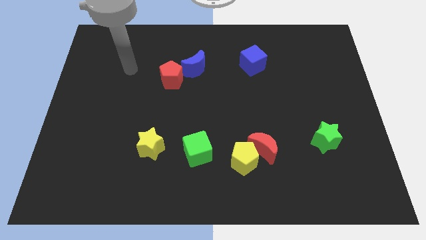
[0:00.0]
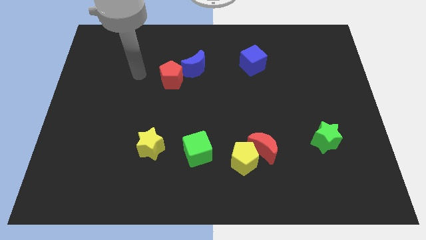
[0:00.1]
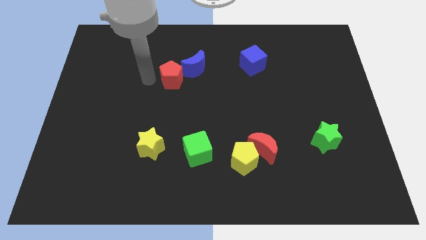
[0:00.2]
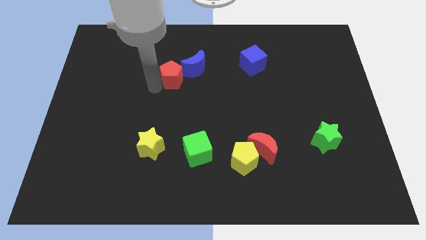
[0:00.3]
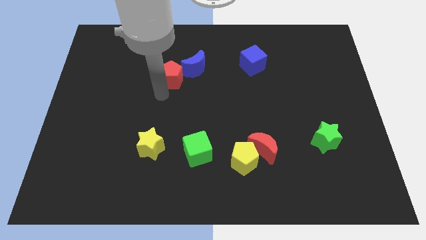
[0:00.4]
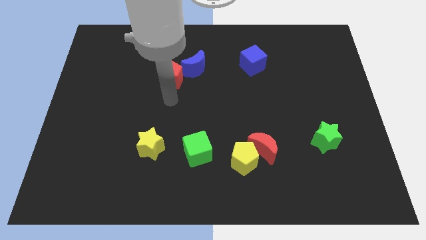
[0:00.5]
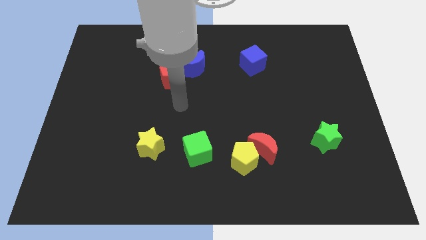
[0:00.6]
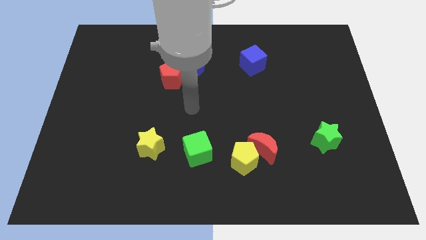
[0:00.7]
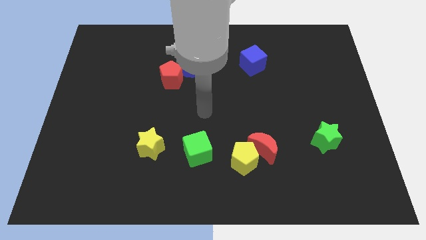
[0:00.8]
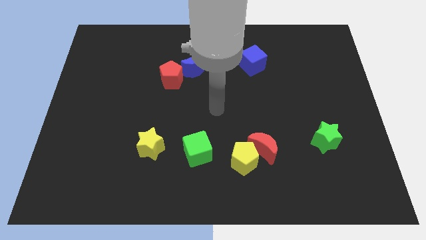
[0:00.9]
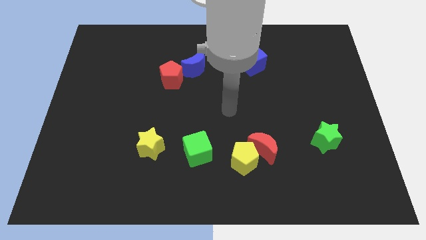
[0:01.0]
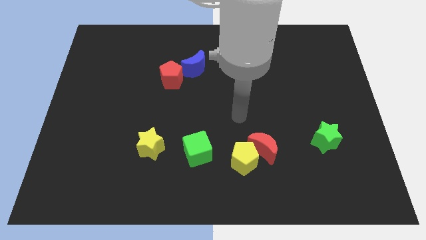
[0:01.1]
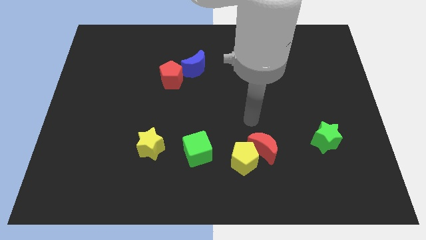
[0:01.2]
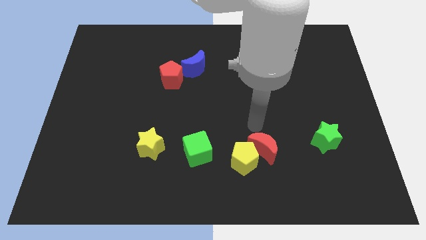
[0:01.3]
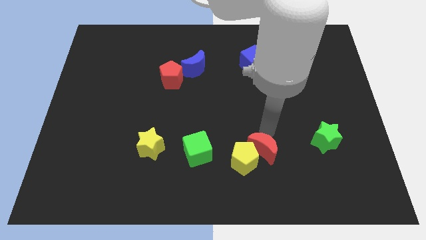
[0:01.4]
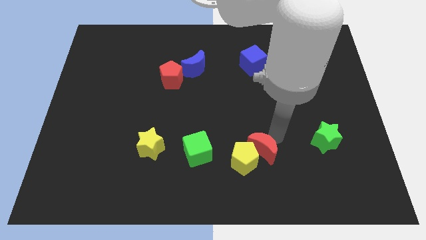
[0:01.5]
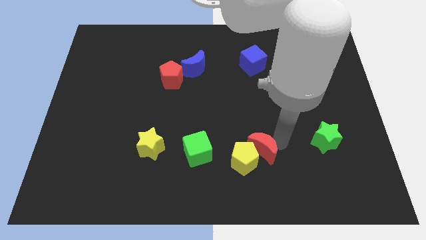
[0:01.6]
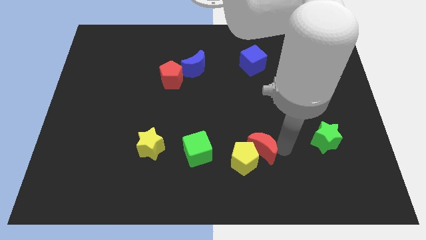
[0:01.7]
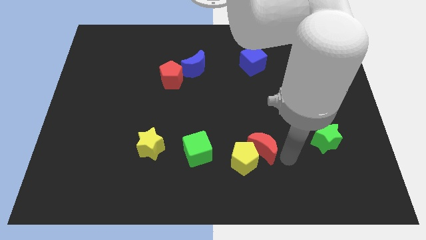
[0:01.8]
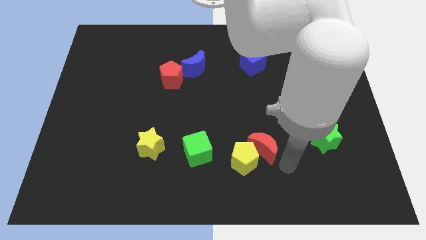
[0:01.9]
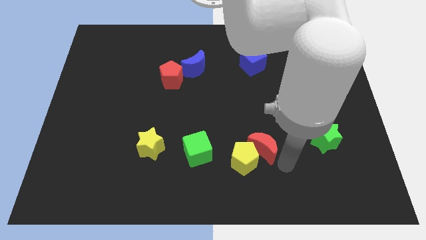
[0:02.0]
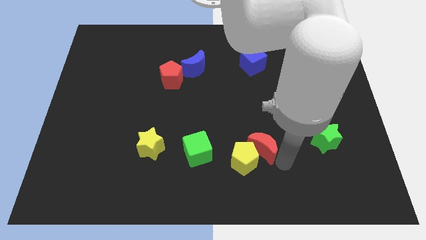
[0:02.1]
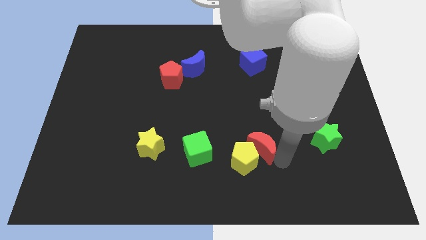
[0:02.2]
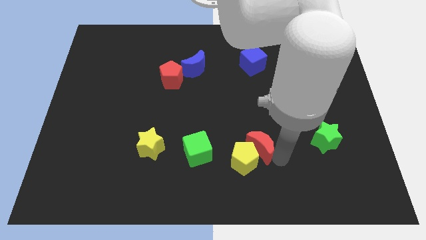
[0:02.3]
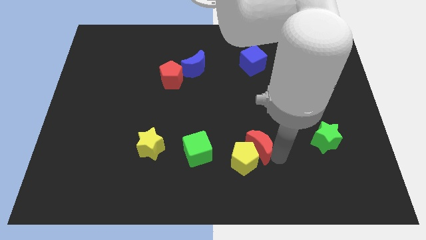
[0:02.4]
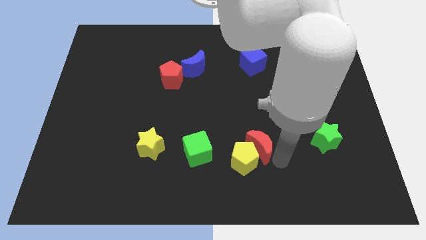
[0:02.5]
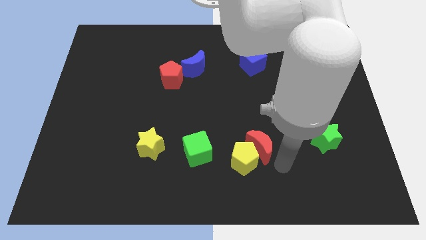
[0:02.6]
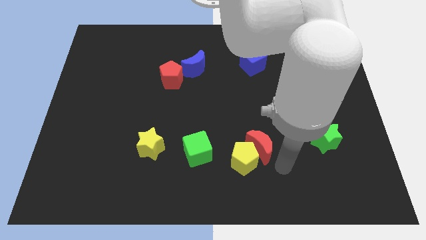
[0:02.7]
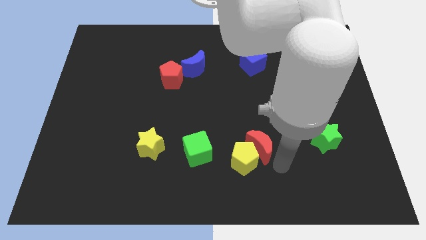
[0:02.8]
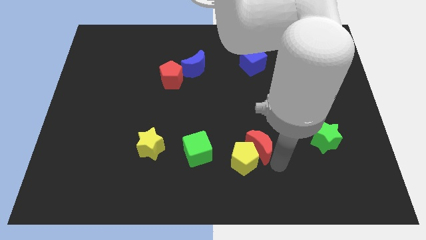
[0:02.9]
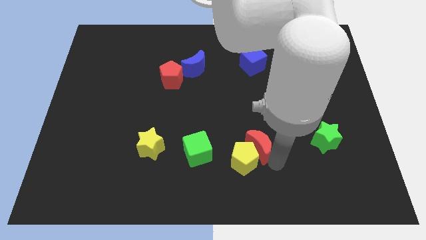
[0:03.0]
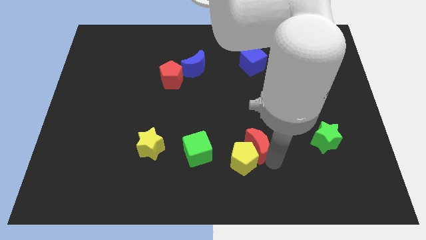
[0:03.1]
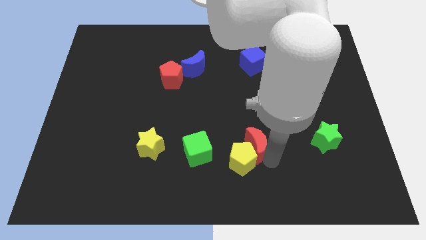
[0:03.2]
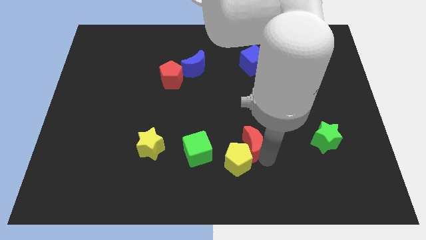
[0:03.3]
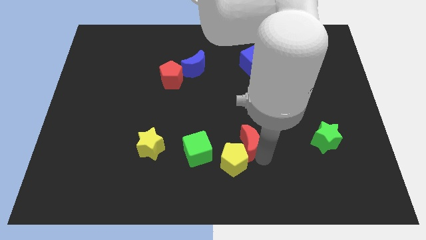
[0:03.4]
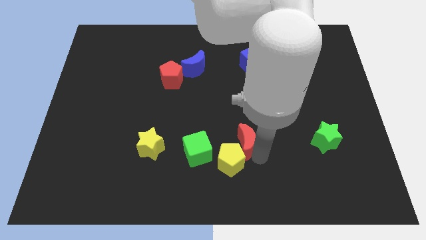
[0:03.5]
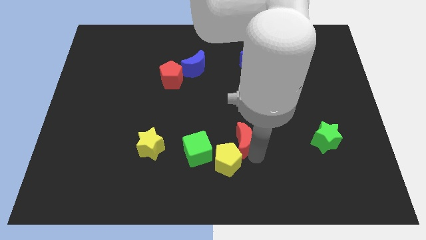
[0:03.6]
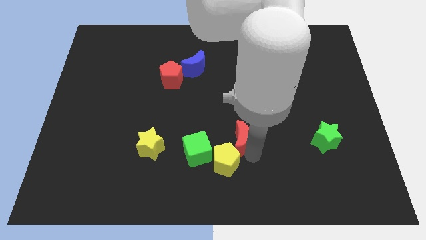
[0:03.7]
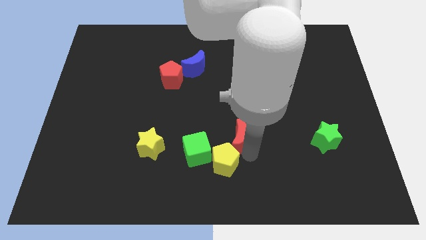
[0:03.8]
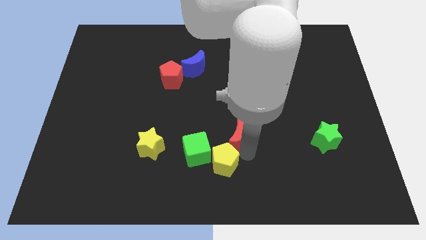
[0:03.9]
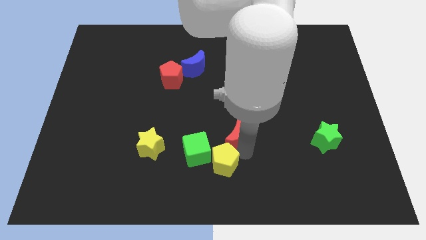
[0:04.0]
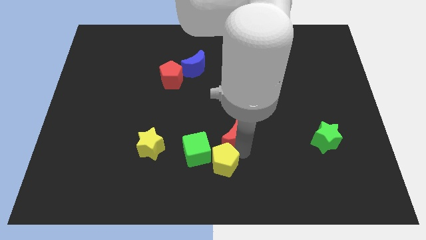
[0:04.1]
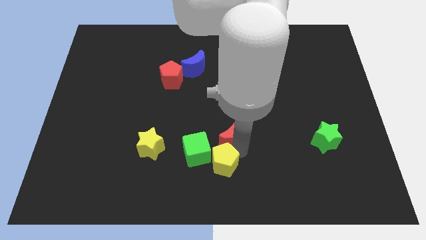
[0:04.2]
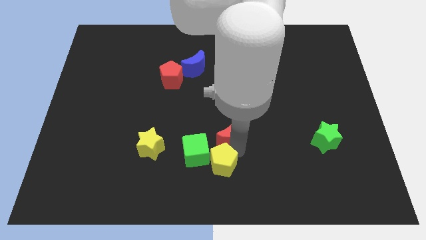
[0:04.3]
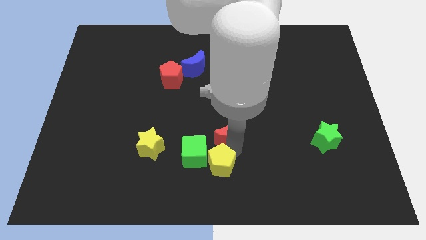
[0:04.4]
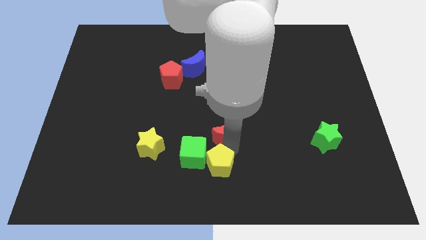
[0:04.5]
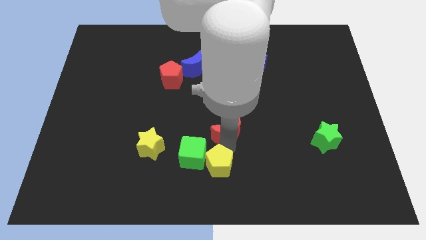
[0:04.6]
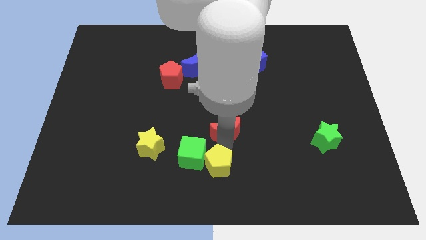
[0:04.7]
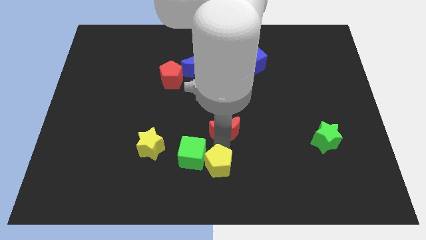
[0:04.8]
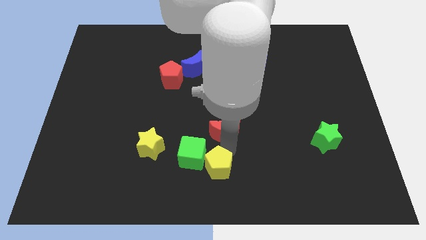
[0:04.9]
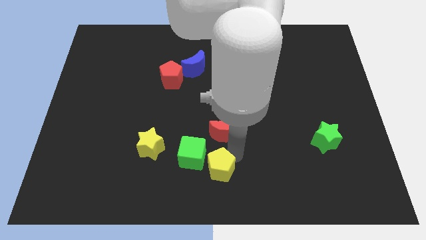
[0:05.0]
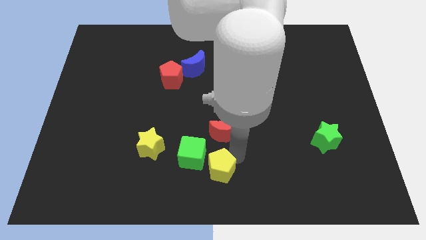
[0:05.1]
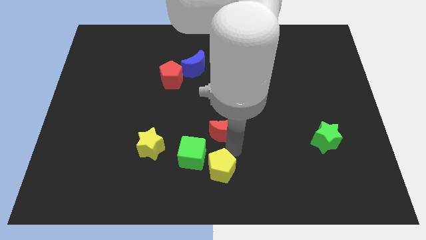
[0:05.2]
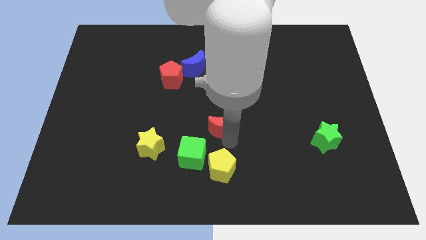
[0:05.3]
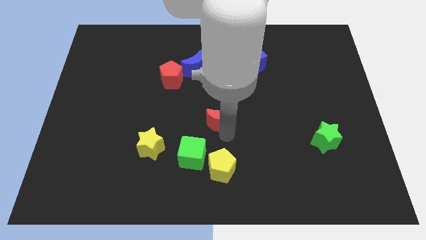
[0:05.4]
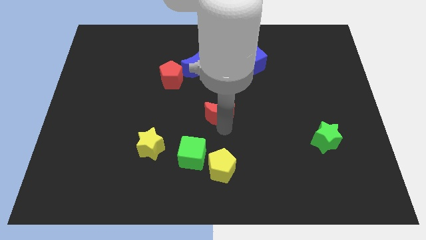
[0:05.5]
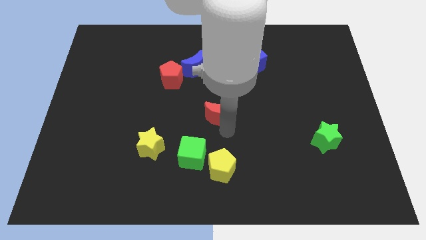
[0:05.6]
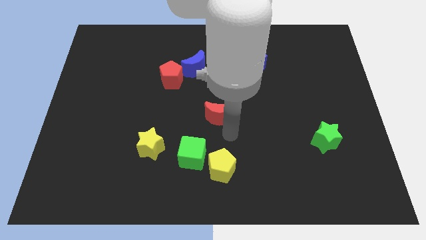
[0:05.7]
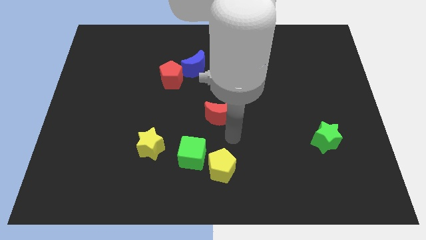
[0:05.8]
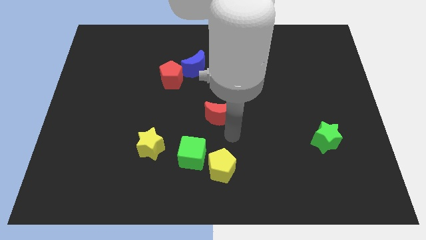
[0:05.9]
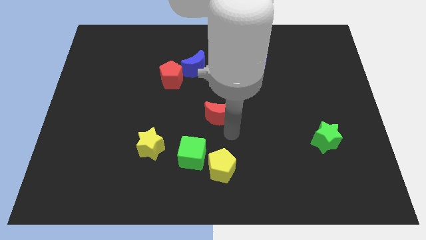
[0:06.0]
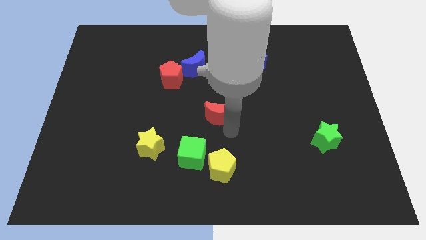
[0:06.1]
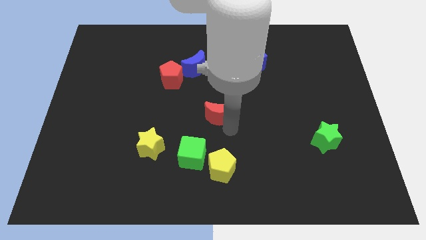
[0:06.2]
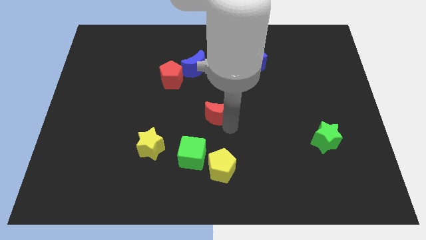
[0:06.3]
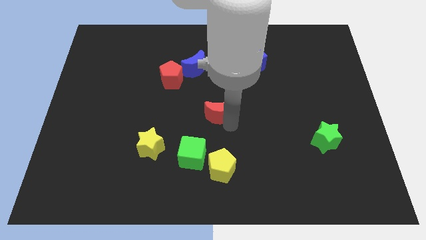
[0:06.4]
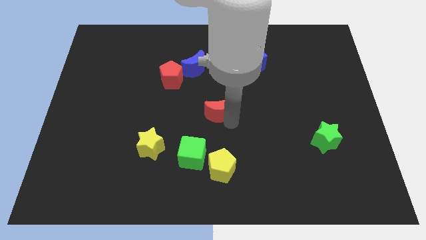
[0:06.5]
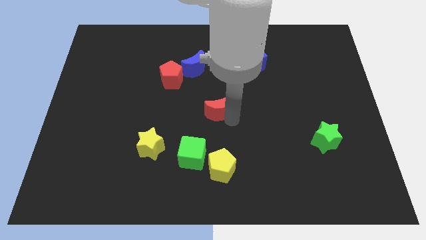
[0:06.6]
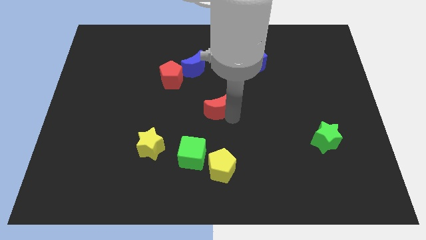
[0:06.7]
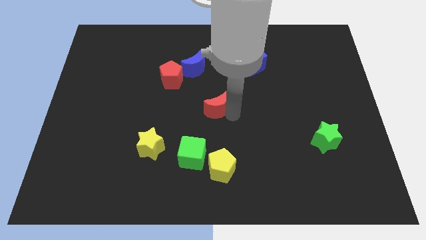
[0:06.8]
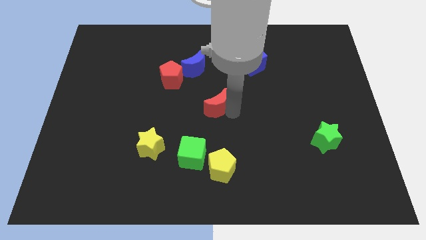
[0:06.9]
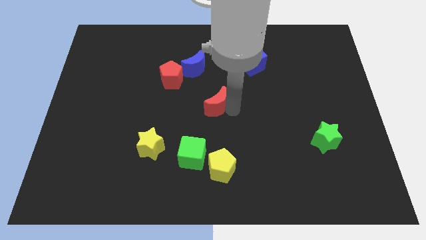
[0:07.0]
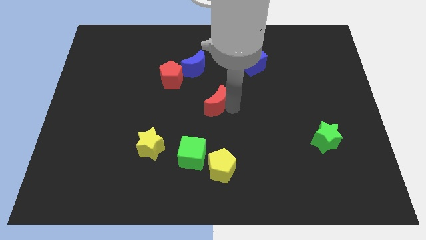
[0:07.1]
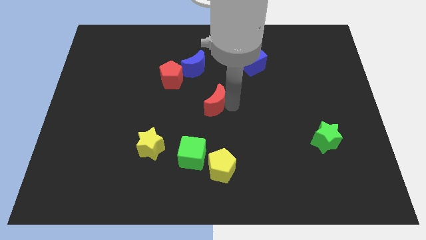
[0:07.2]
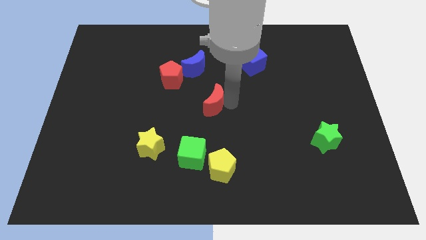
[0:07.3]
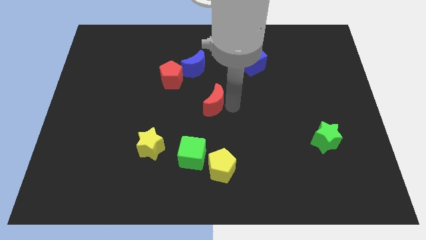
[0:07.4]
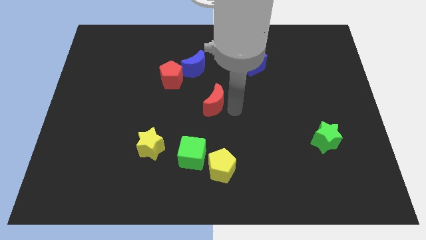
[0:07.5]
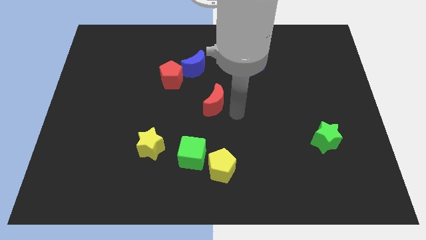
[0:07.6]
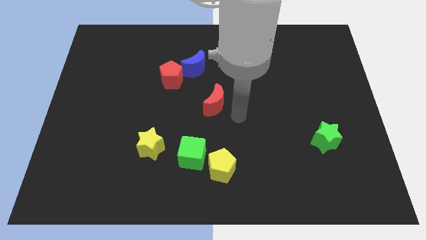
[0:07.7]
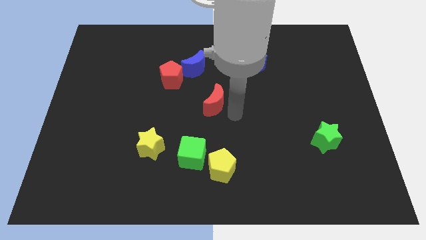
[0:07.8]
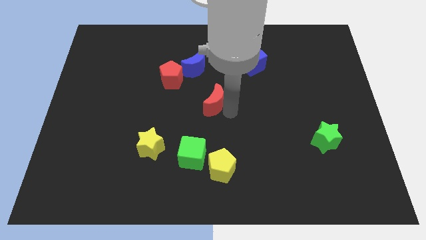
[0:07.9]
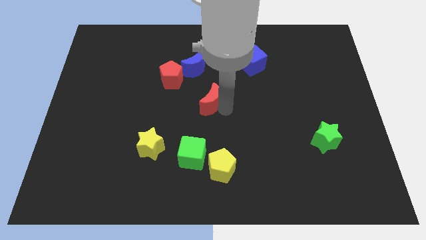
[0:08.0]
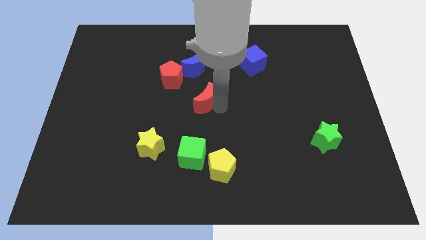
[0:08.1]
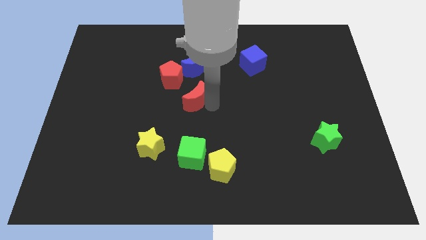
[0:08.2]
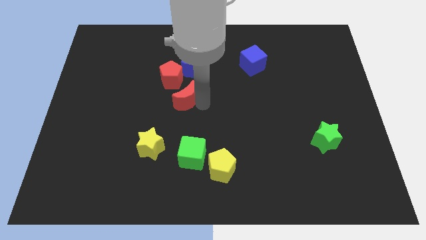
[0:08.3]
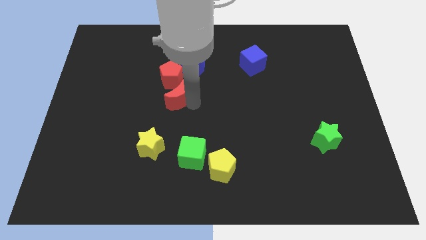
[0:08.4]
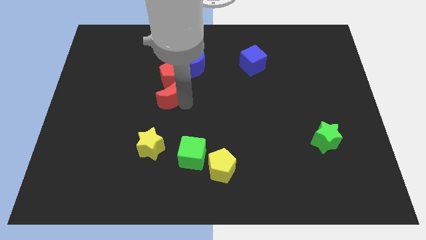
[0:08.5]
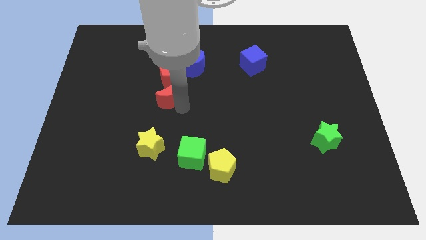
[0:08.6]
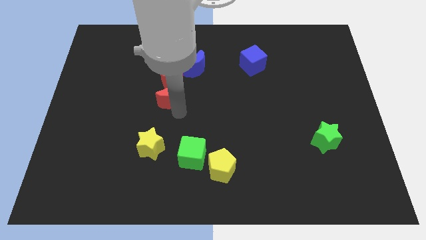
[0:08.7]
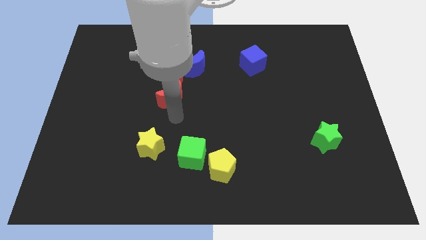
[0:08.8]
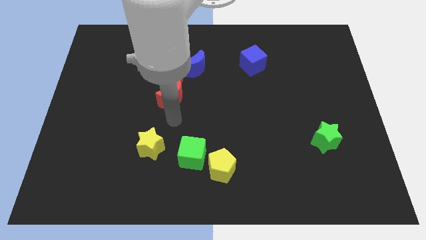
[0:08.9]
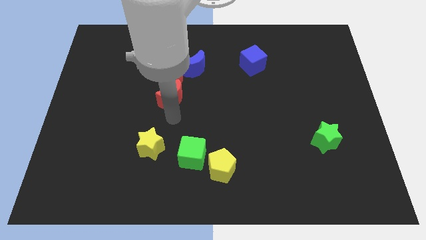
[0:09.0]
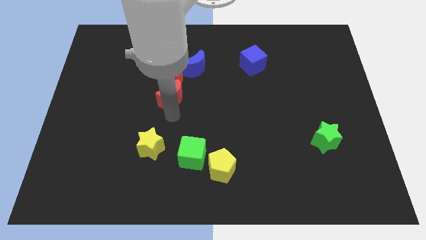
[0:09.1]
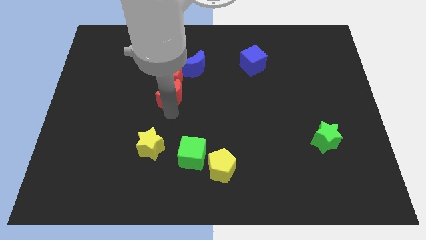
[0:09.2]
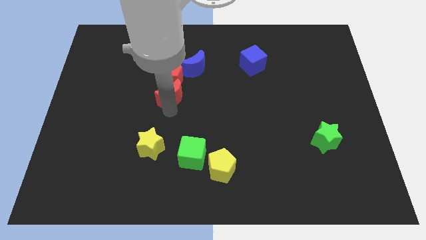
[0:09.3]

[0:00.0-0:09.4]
slide the red moon to the red pentagon
